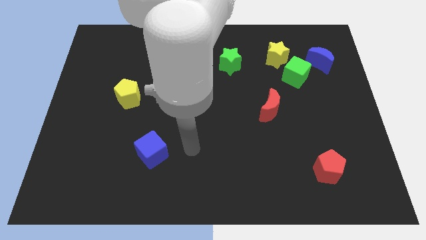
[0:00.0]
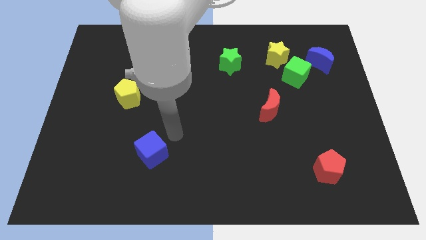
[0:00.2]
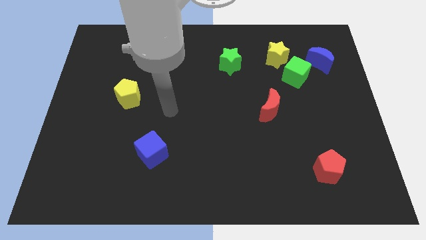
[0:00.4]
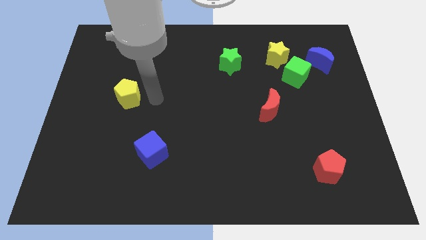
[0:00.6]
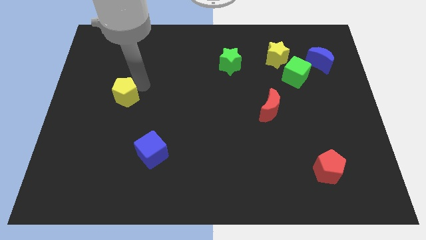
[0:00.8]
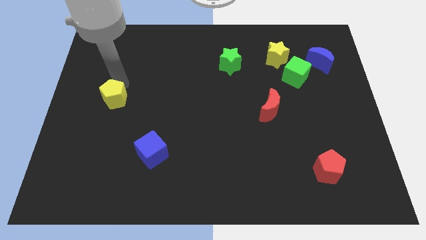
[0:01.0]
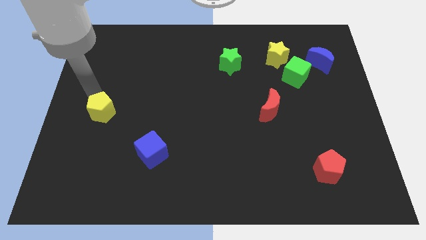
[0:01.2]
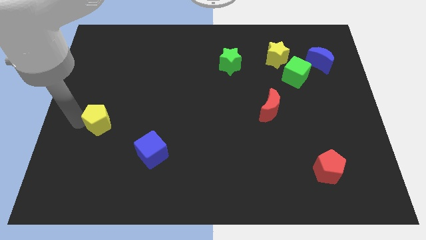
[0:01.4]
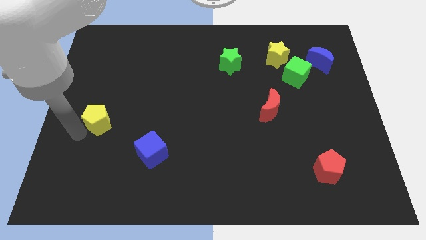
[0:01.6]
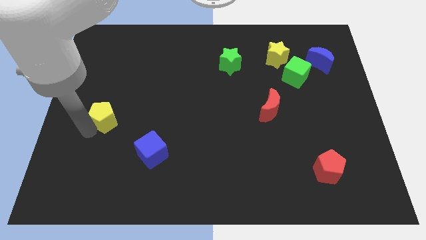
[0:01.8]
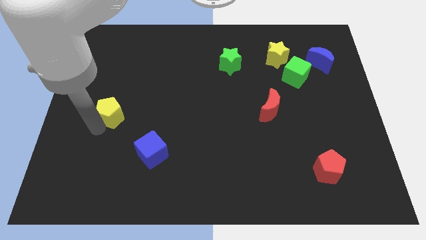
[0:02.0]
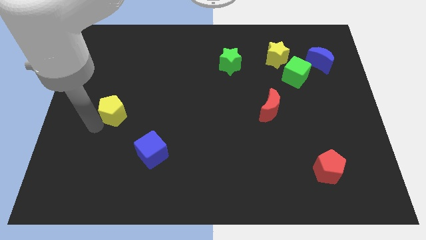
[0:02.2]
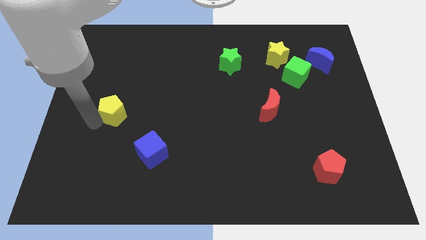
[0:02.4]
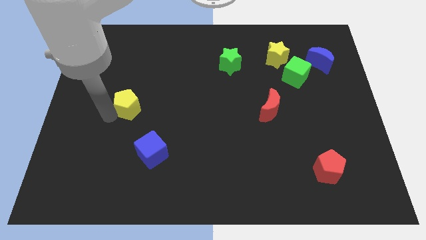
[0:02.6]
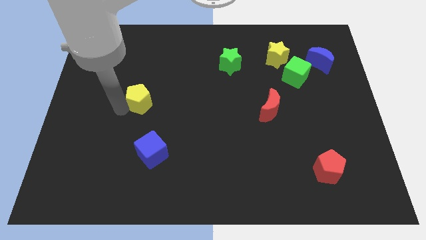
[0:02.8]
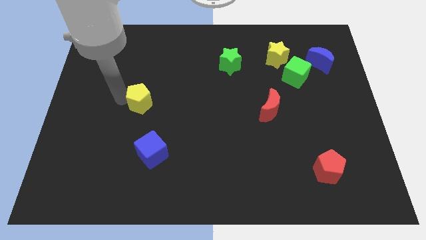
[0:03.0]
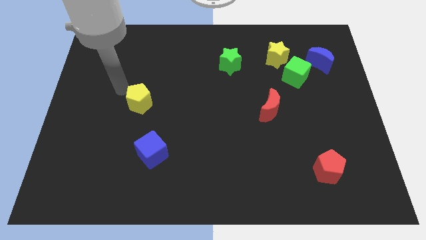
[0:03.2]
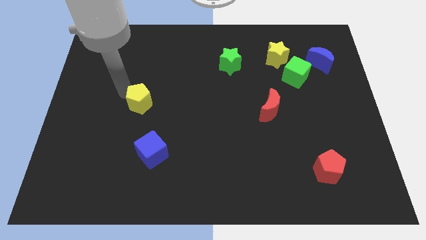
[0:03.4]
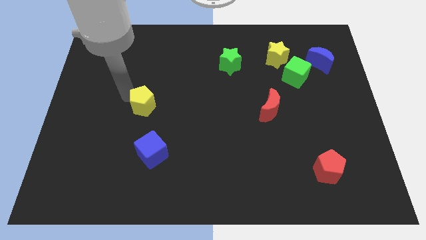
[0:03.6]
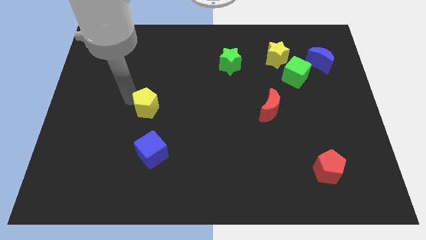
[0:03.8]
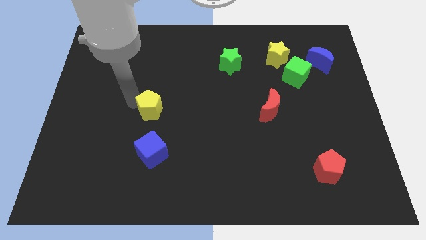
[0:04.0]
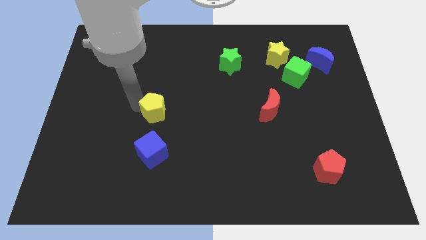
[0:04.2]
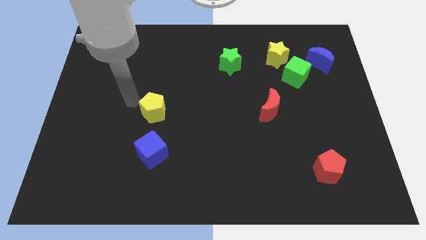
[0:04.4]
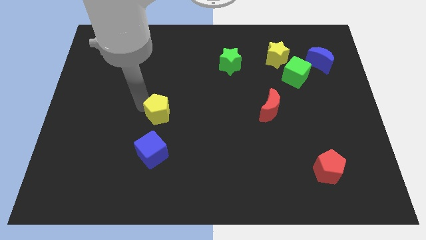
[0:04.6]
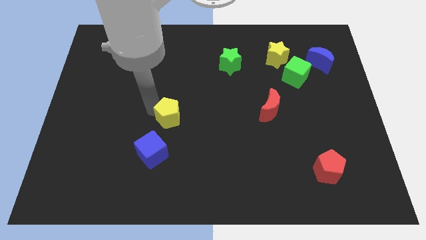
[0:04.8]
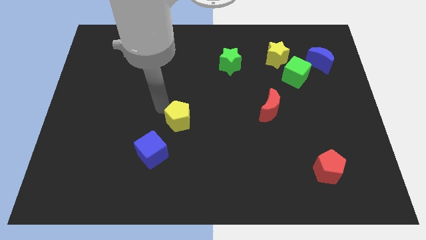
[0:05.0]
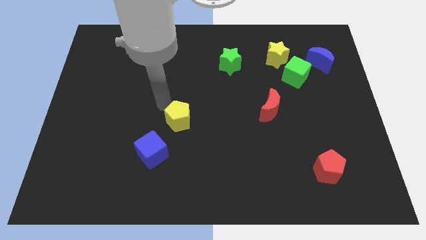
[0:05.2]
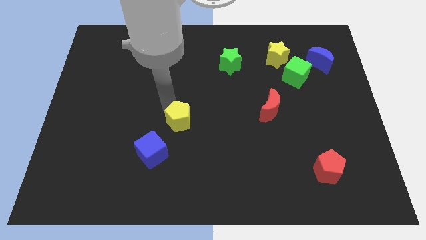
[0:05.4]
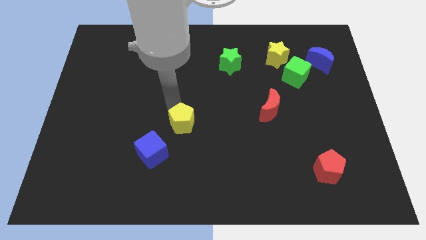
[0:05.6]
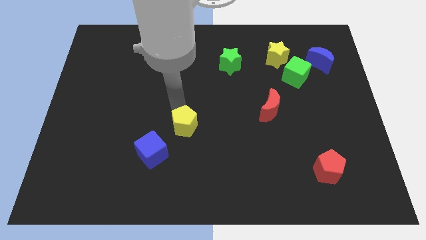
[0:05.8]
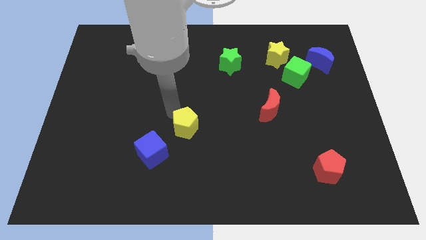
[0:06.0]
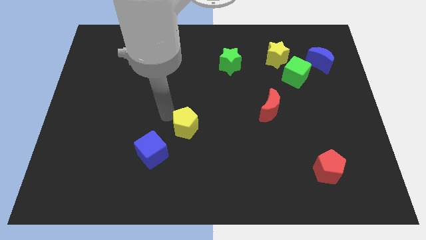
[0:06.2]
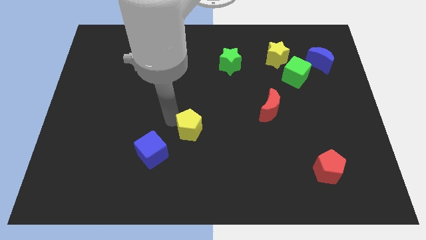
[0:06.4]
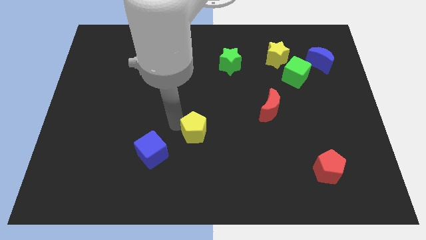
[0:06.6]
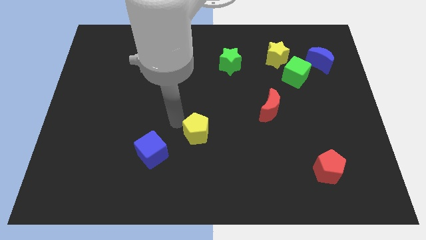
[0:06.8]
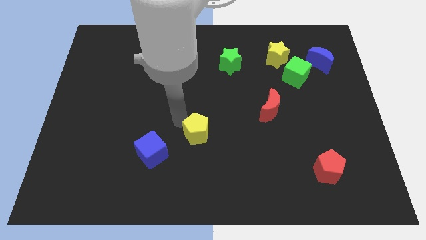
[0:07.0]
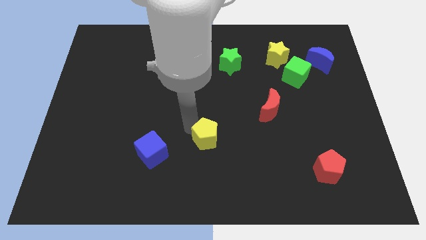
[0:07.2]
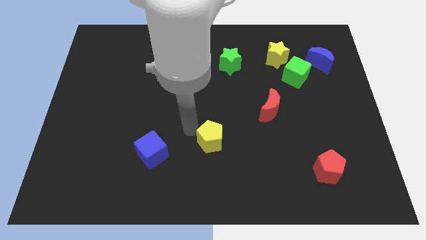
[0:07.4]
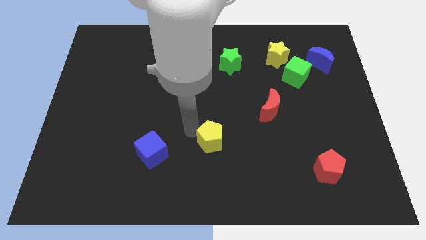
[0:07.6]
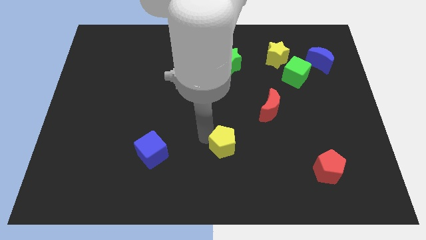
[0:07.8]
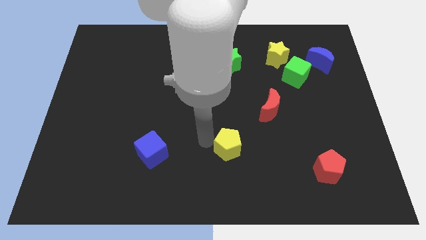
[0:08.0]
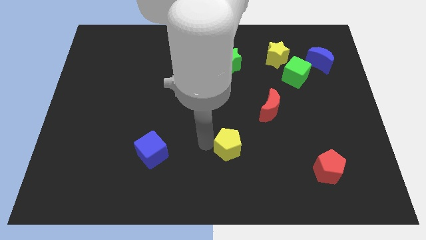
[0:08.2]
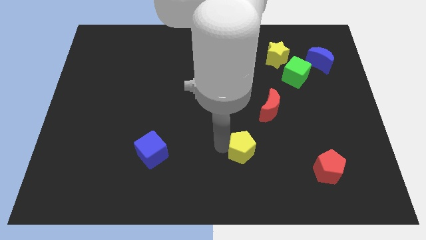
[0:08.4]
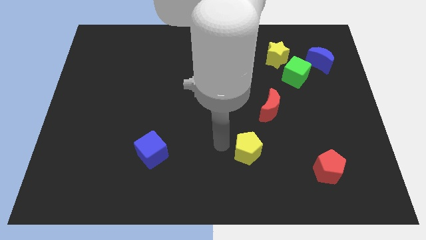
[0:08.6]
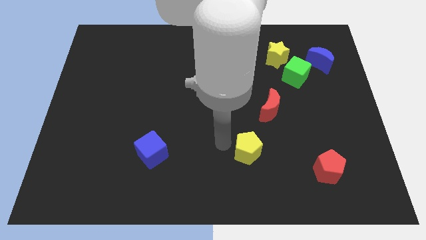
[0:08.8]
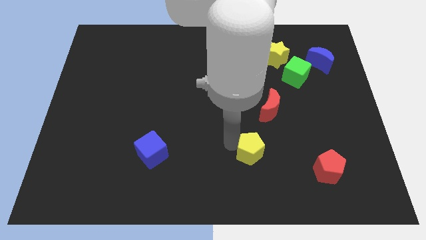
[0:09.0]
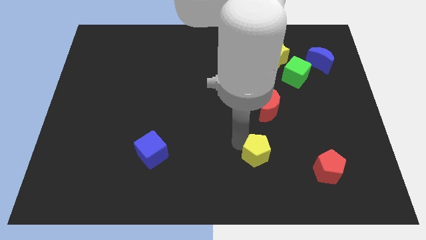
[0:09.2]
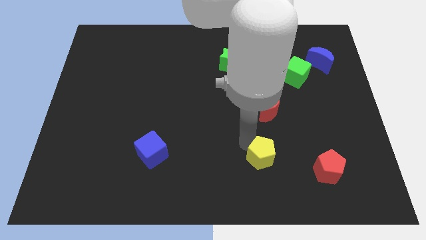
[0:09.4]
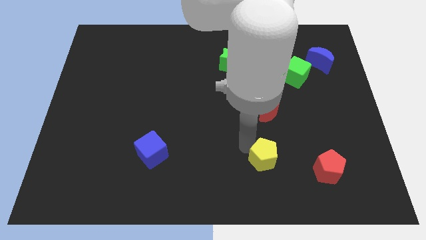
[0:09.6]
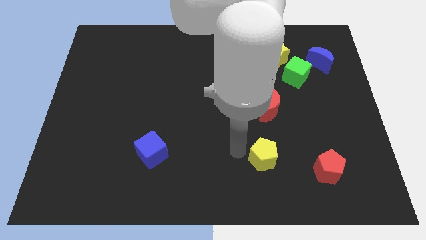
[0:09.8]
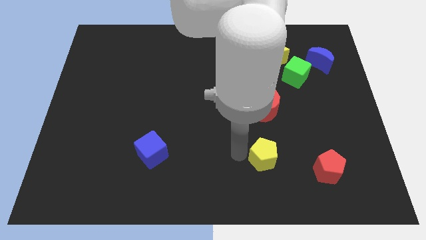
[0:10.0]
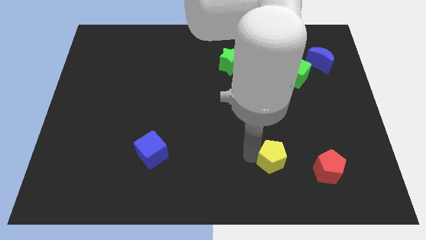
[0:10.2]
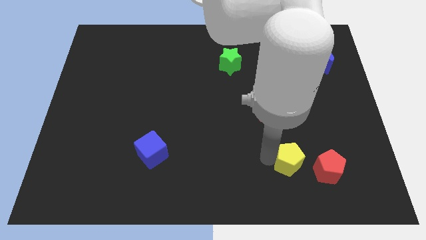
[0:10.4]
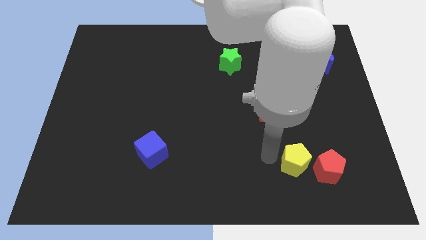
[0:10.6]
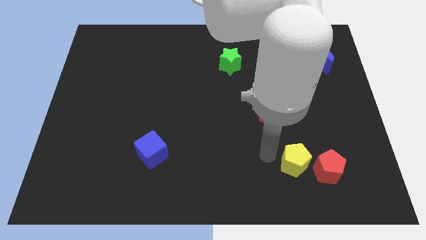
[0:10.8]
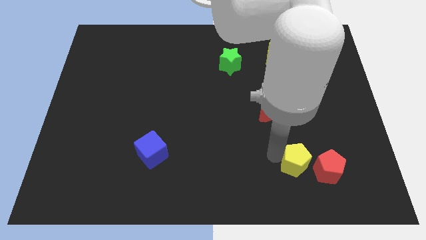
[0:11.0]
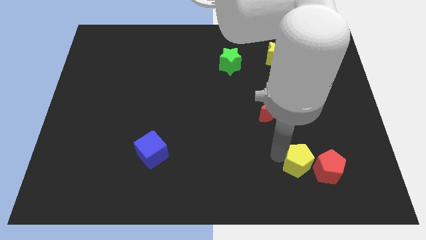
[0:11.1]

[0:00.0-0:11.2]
put the yellow pentagon to the red pentagon
